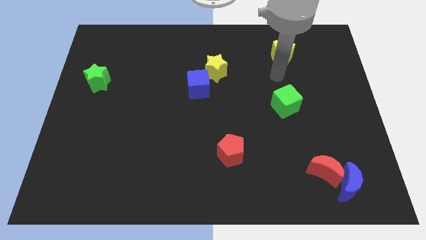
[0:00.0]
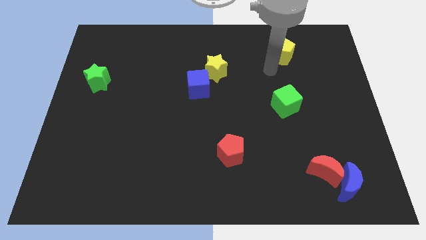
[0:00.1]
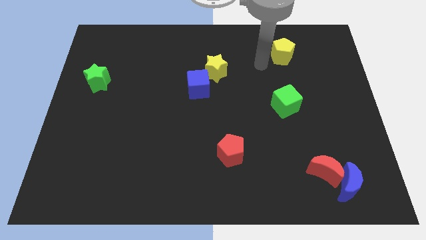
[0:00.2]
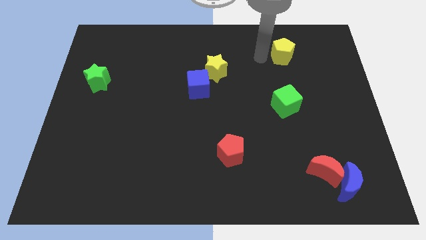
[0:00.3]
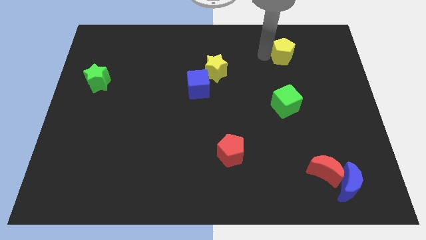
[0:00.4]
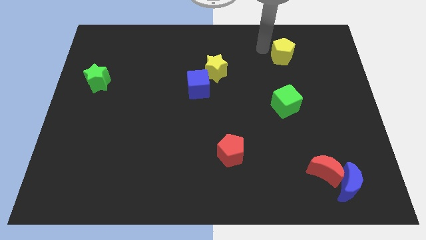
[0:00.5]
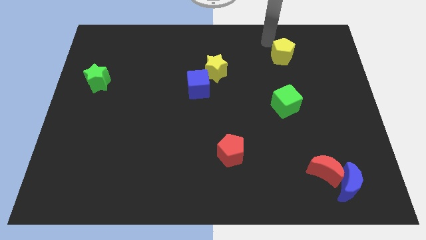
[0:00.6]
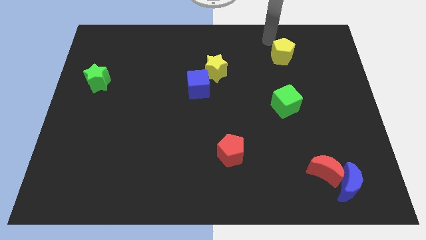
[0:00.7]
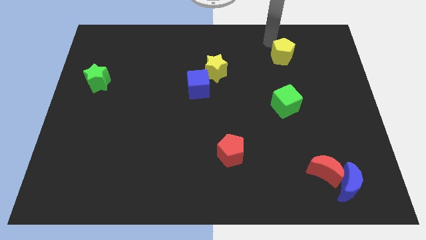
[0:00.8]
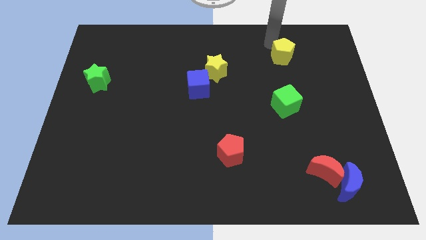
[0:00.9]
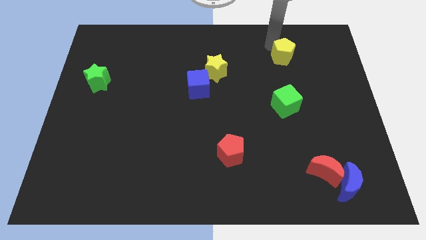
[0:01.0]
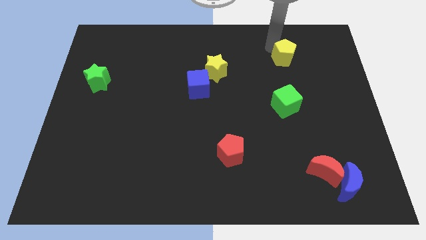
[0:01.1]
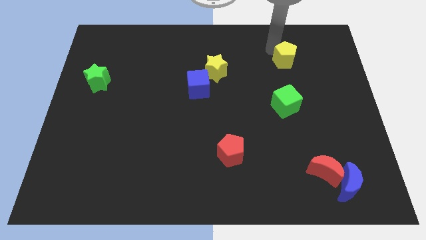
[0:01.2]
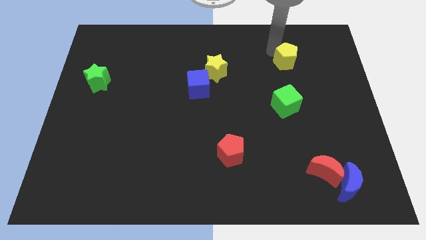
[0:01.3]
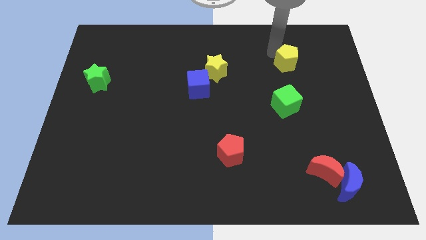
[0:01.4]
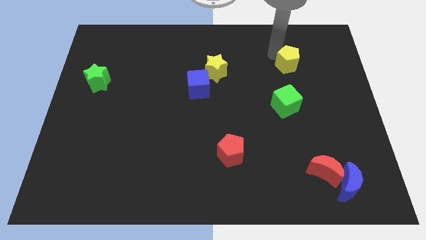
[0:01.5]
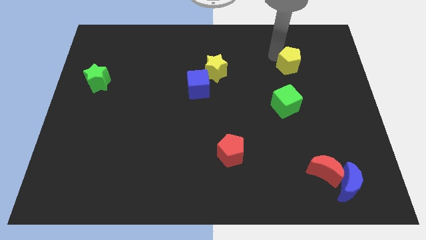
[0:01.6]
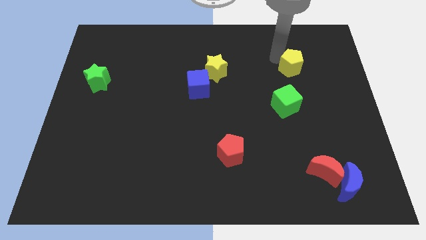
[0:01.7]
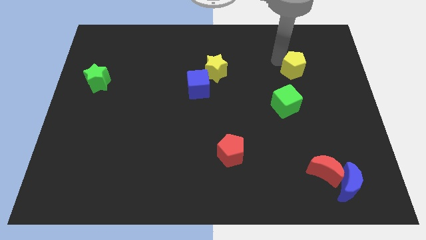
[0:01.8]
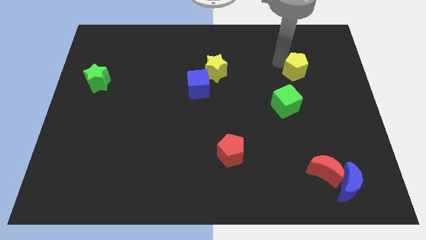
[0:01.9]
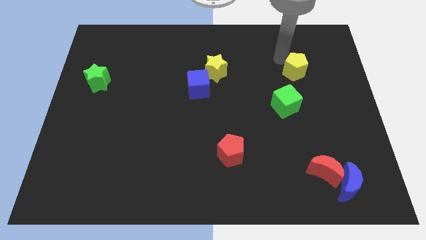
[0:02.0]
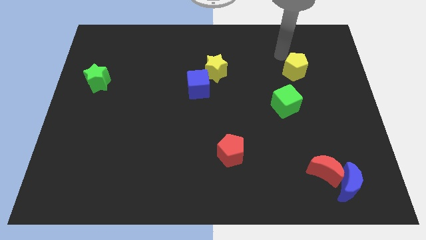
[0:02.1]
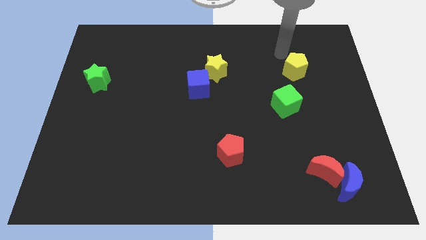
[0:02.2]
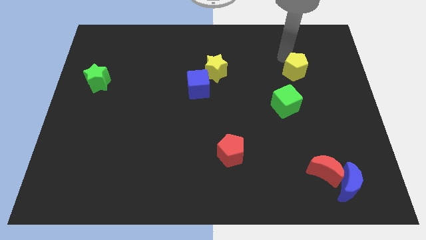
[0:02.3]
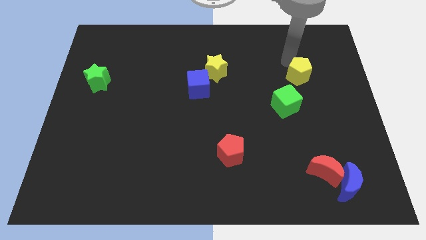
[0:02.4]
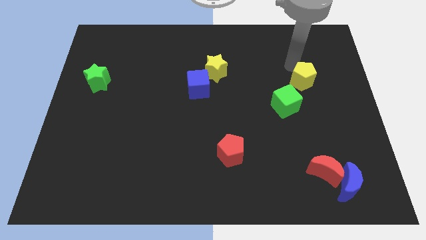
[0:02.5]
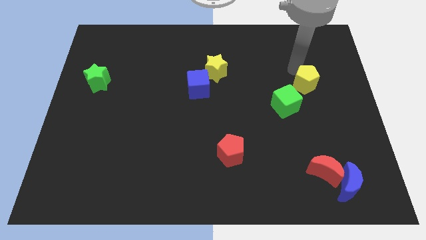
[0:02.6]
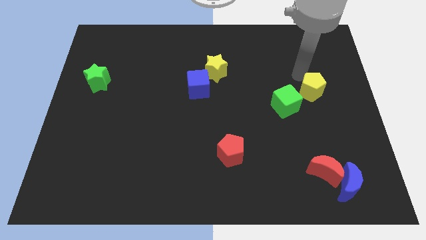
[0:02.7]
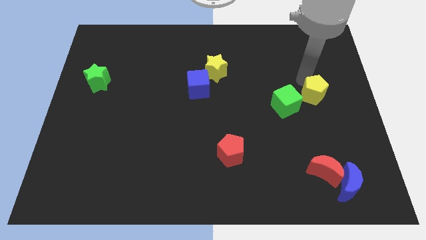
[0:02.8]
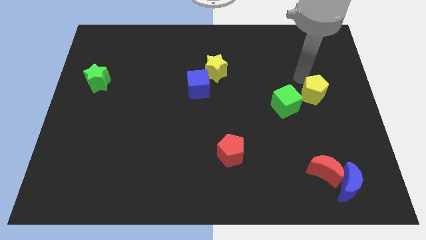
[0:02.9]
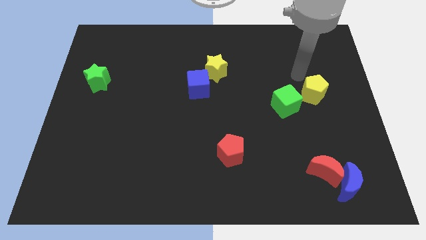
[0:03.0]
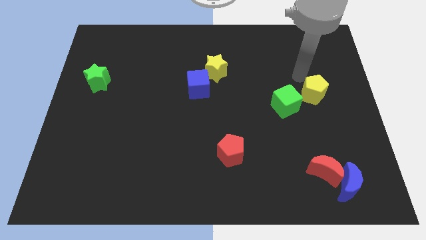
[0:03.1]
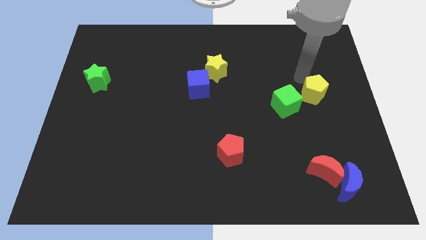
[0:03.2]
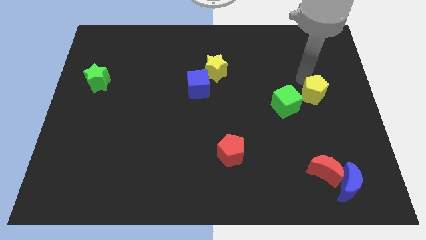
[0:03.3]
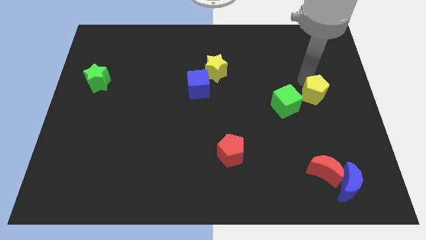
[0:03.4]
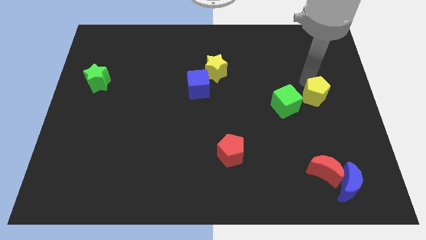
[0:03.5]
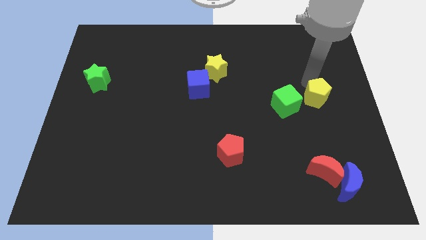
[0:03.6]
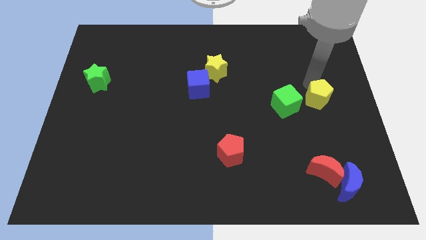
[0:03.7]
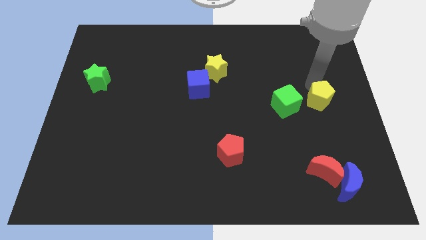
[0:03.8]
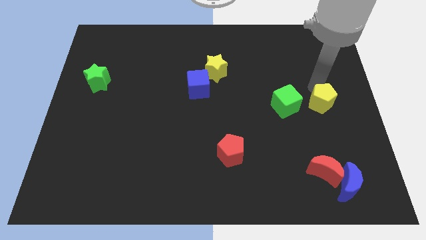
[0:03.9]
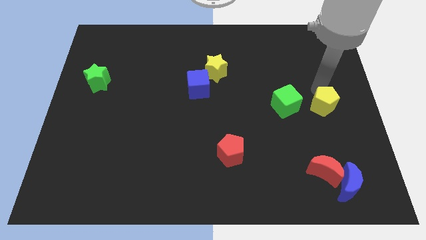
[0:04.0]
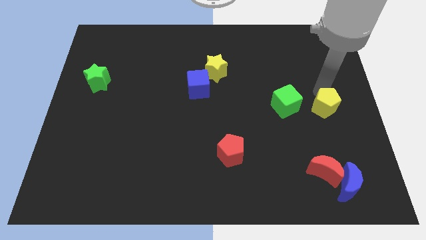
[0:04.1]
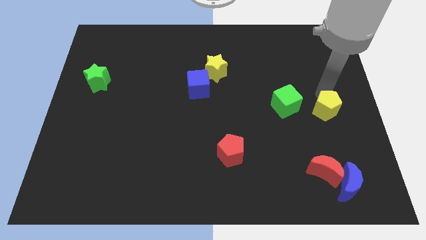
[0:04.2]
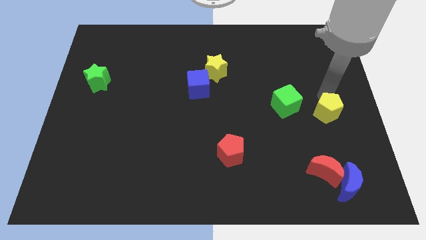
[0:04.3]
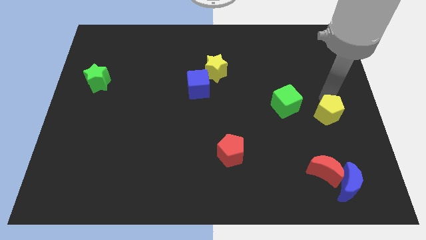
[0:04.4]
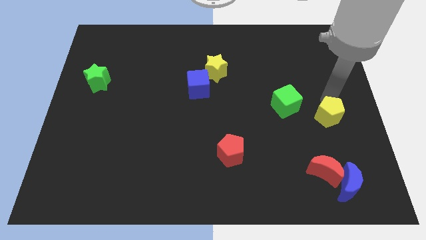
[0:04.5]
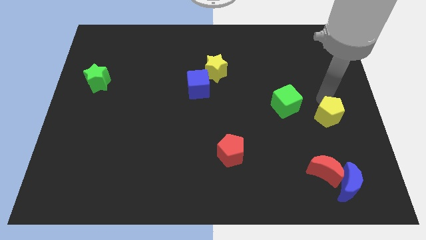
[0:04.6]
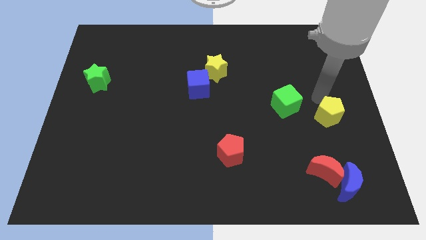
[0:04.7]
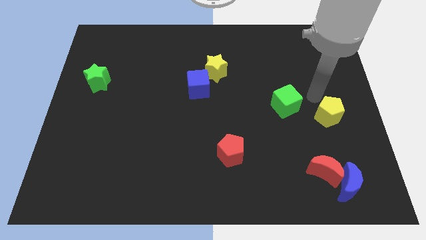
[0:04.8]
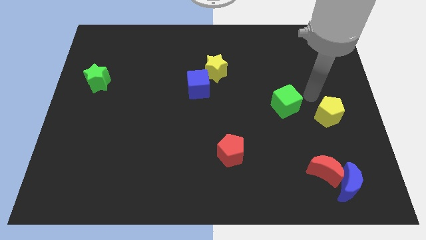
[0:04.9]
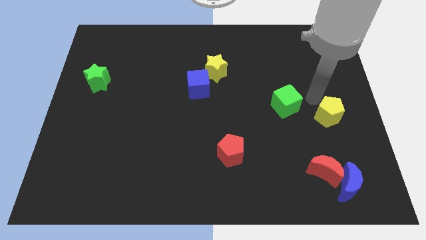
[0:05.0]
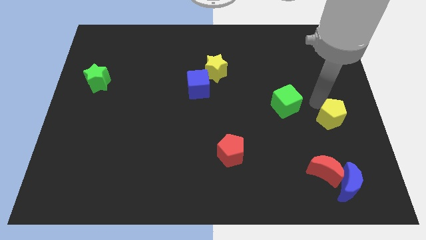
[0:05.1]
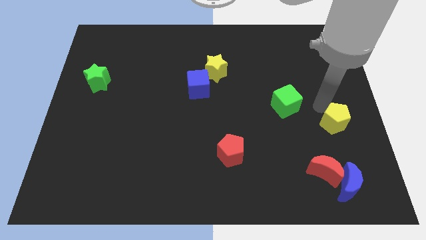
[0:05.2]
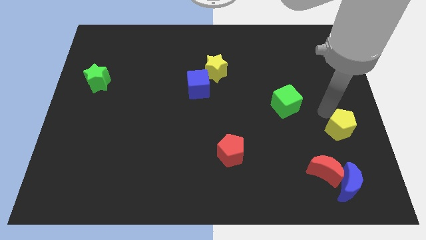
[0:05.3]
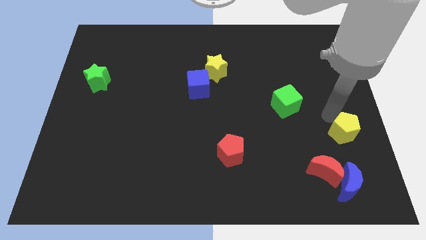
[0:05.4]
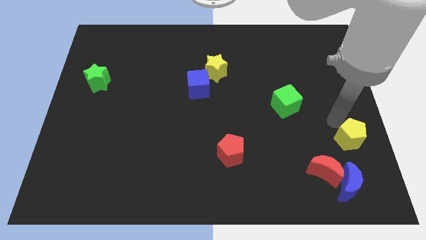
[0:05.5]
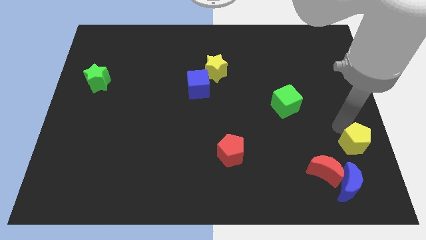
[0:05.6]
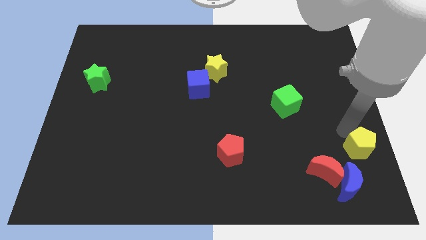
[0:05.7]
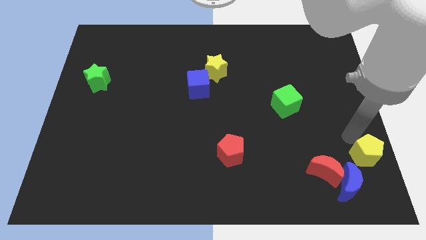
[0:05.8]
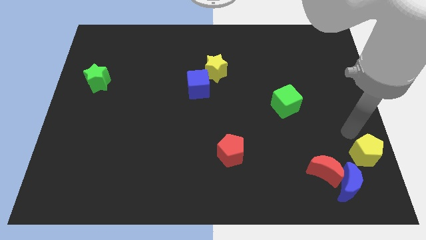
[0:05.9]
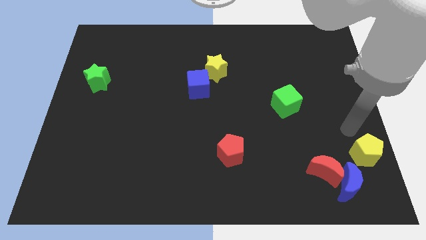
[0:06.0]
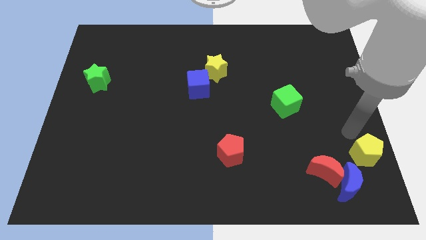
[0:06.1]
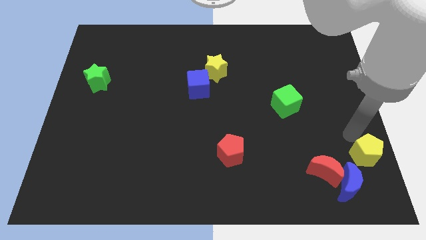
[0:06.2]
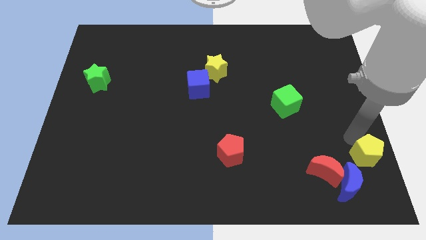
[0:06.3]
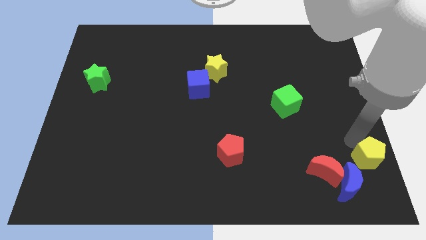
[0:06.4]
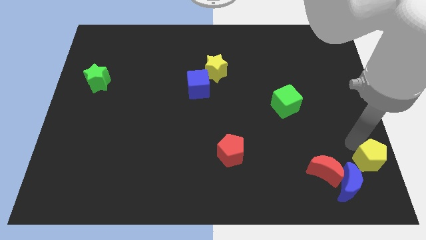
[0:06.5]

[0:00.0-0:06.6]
move the yellow pentagon to the bottom right
